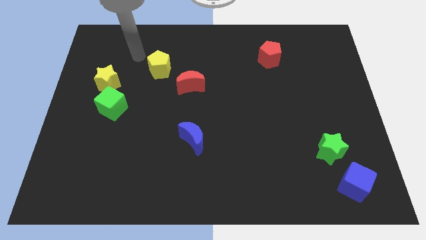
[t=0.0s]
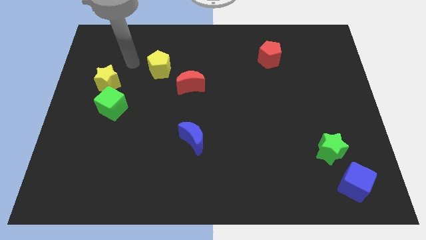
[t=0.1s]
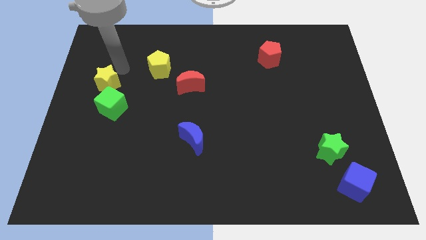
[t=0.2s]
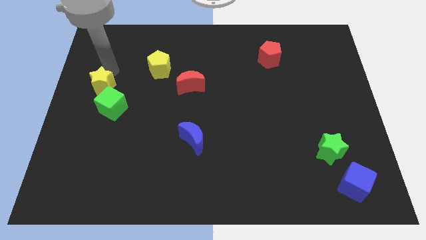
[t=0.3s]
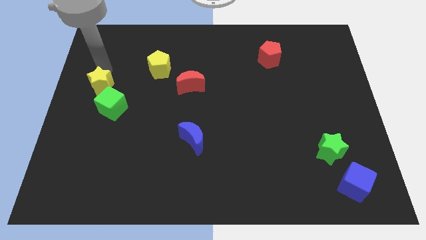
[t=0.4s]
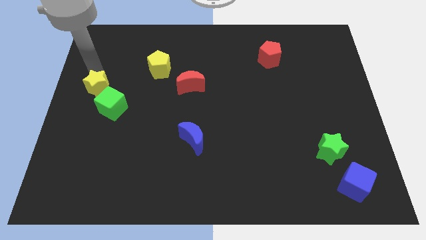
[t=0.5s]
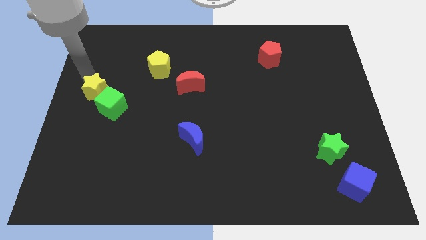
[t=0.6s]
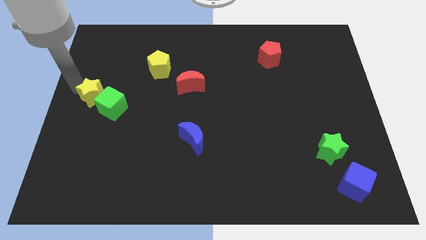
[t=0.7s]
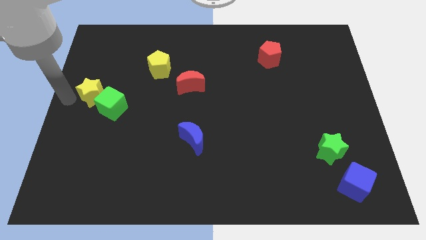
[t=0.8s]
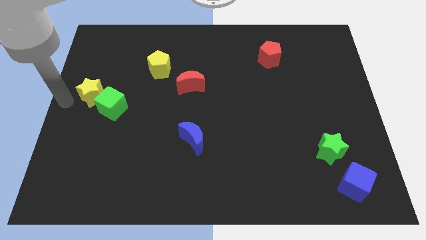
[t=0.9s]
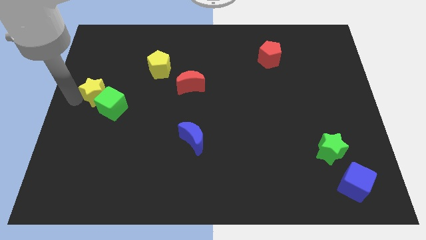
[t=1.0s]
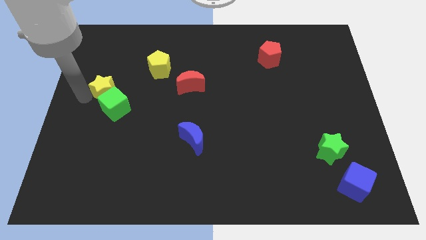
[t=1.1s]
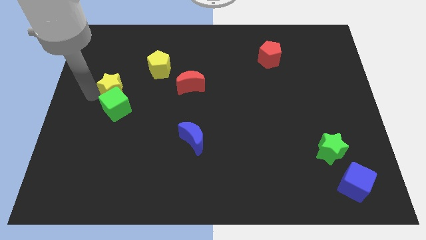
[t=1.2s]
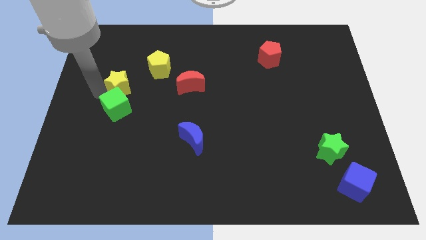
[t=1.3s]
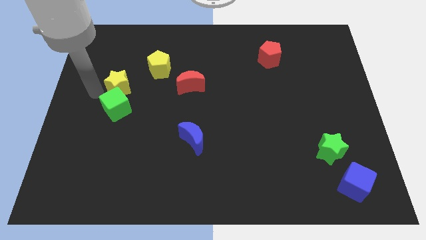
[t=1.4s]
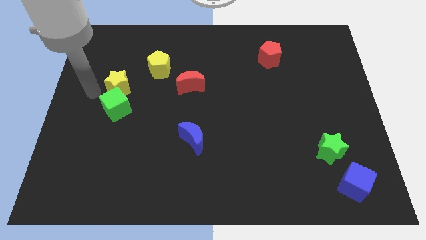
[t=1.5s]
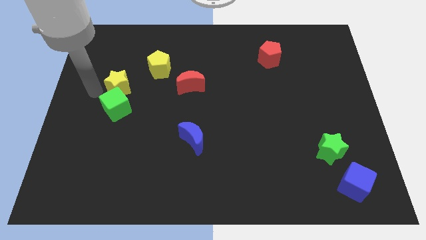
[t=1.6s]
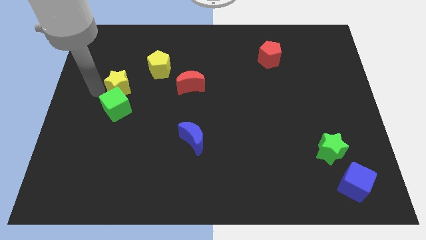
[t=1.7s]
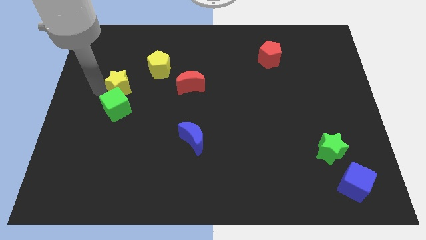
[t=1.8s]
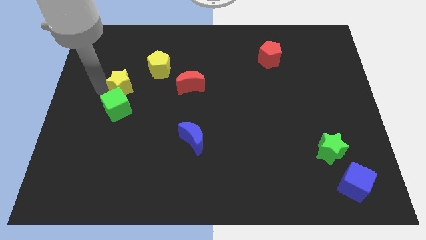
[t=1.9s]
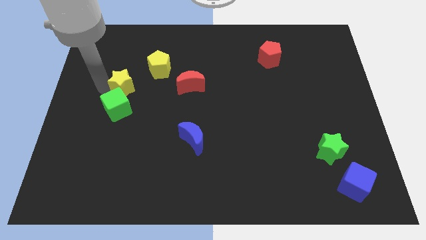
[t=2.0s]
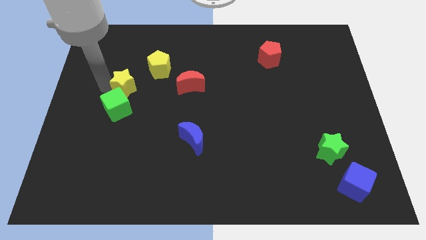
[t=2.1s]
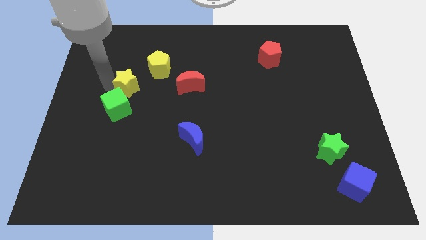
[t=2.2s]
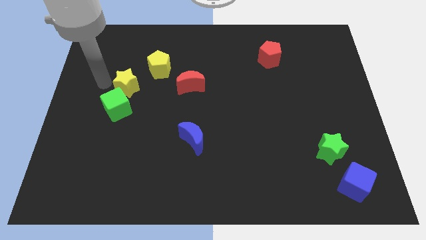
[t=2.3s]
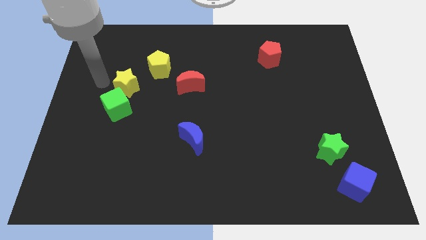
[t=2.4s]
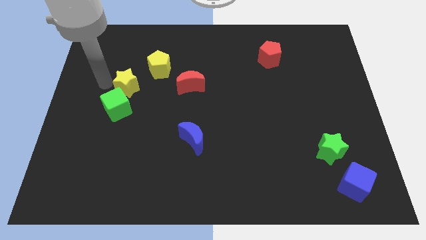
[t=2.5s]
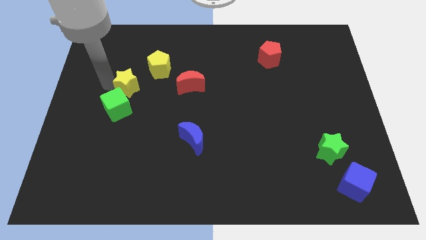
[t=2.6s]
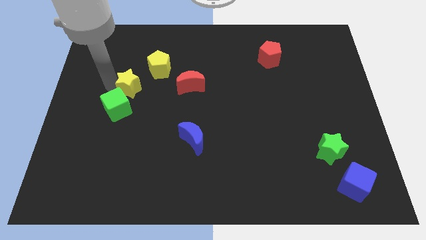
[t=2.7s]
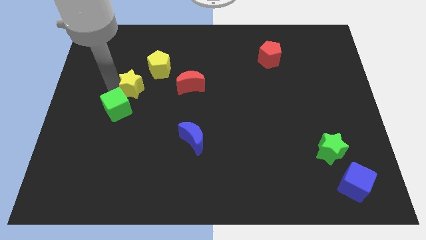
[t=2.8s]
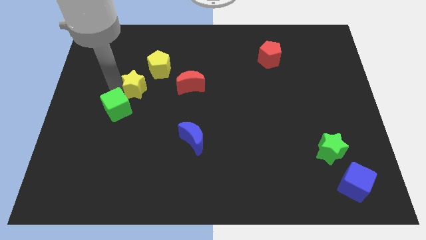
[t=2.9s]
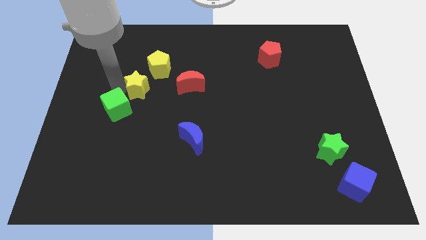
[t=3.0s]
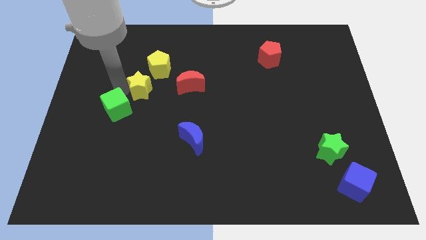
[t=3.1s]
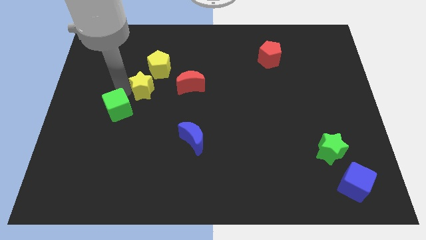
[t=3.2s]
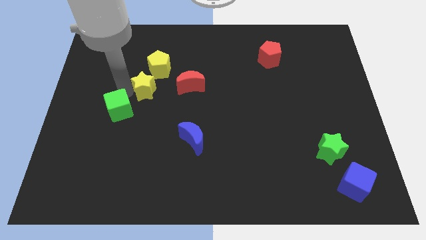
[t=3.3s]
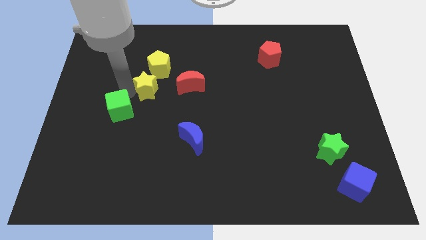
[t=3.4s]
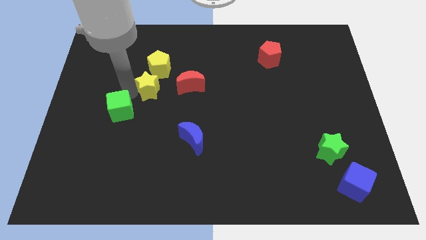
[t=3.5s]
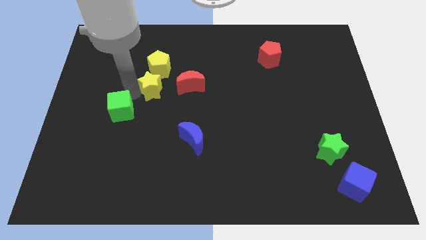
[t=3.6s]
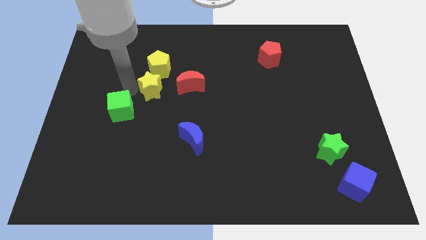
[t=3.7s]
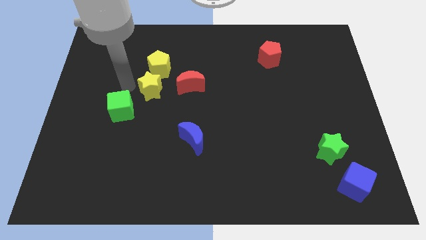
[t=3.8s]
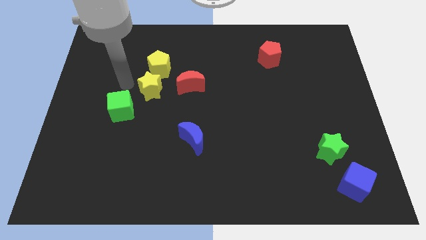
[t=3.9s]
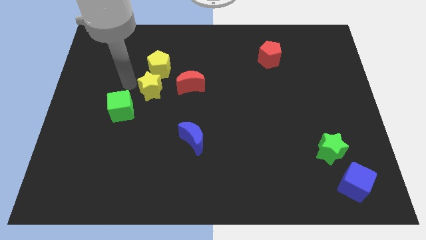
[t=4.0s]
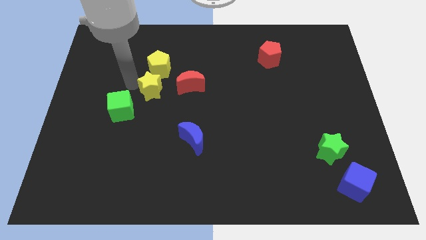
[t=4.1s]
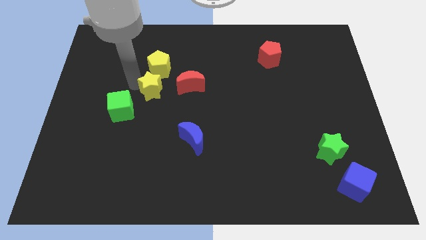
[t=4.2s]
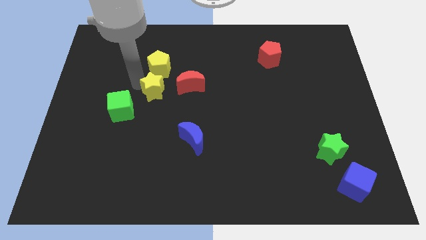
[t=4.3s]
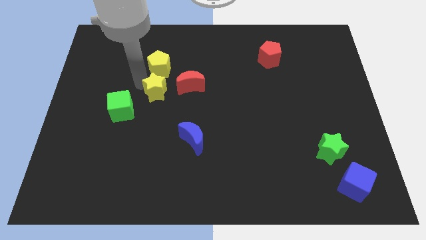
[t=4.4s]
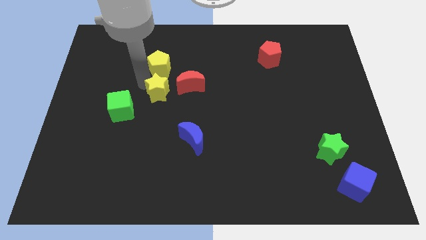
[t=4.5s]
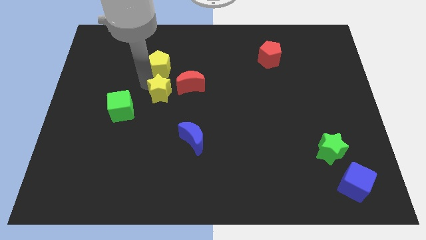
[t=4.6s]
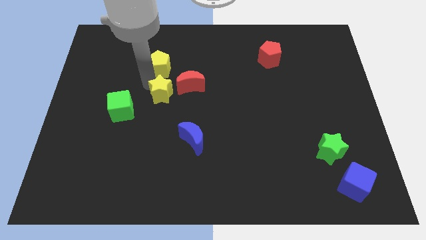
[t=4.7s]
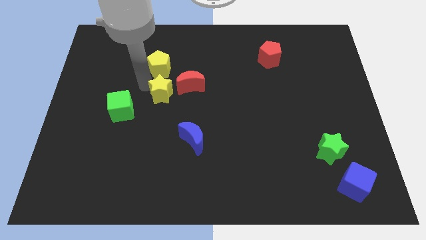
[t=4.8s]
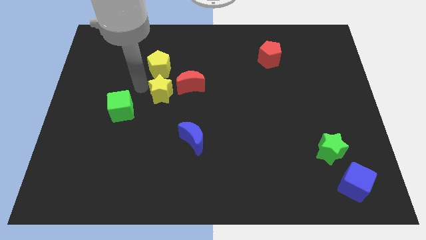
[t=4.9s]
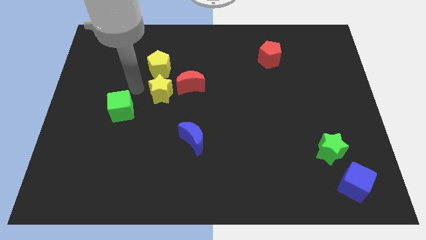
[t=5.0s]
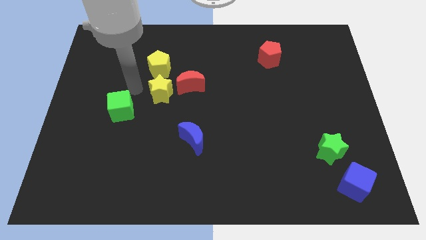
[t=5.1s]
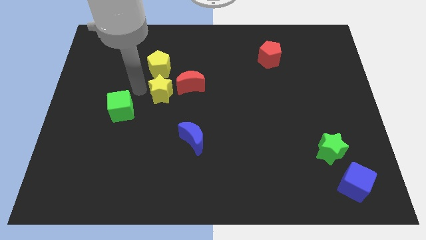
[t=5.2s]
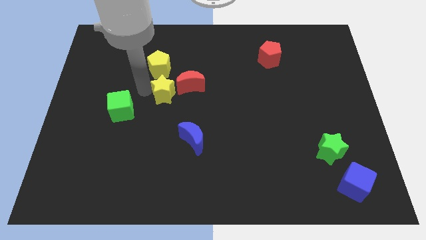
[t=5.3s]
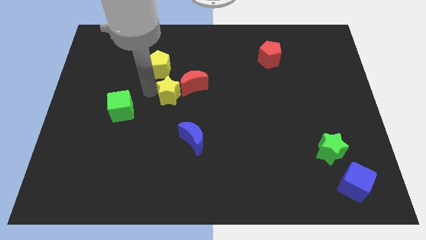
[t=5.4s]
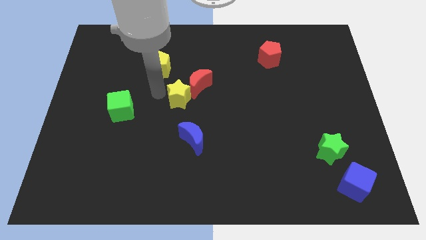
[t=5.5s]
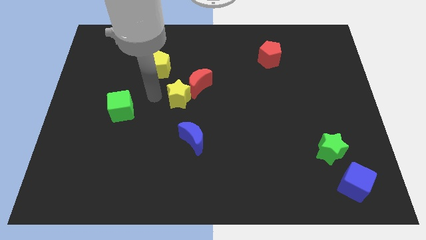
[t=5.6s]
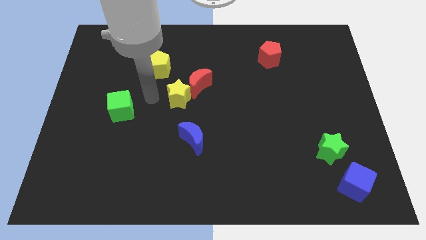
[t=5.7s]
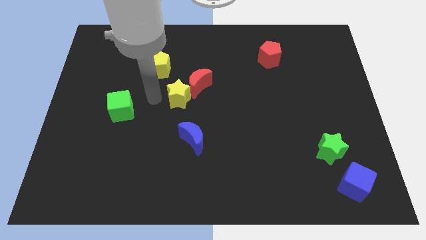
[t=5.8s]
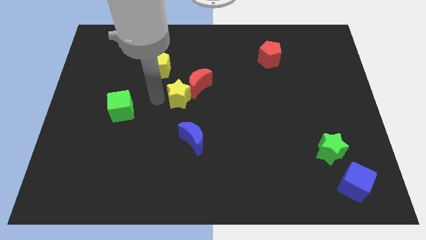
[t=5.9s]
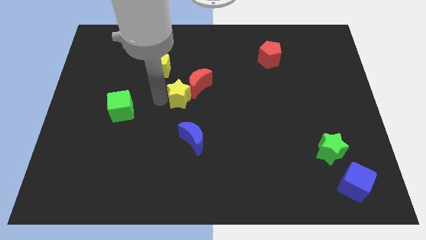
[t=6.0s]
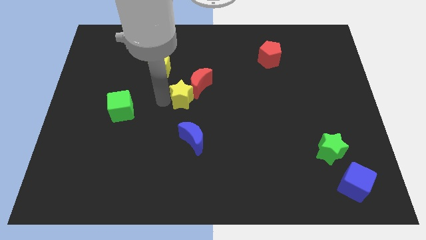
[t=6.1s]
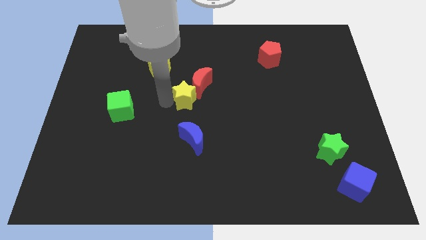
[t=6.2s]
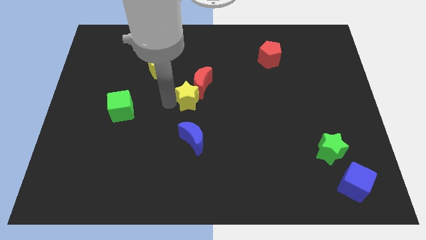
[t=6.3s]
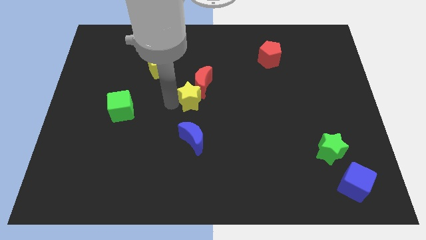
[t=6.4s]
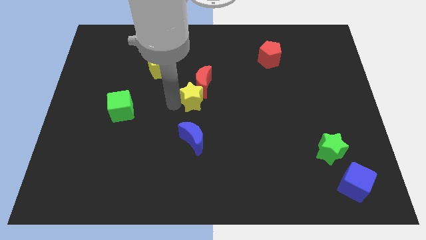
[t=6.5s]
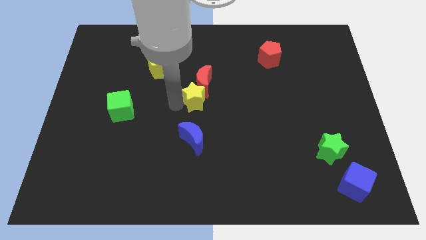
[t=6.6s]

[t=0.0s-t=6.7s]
slide the yellow star right

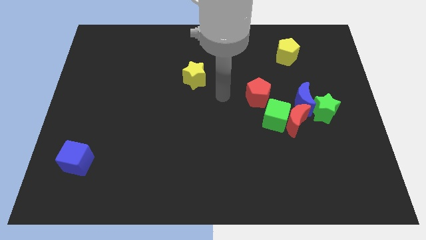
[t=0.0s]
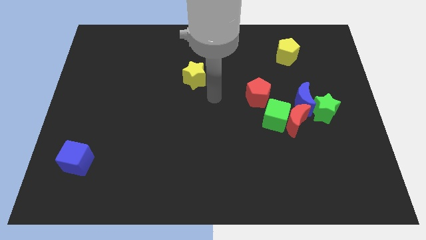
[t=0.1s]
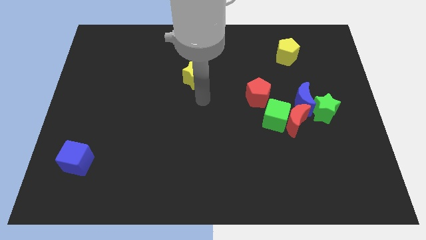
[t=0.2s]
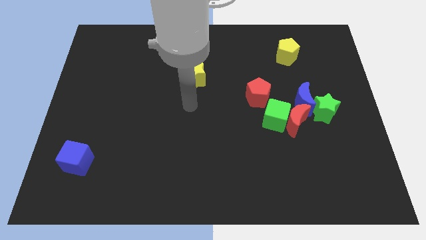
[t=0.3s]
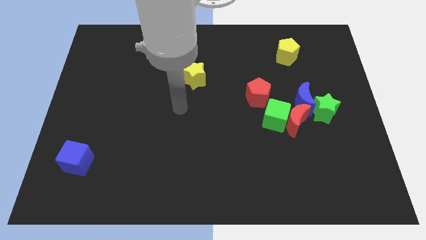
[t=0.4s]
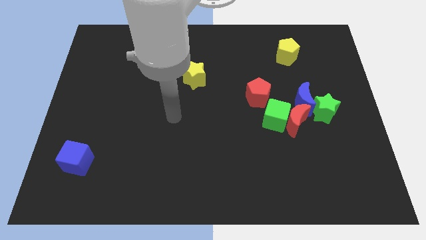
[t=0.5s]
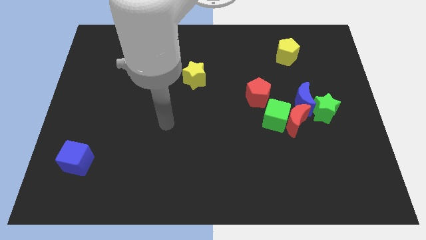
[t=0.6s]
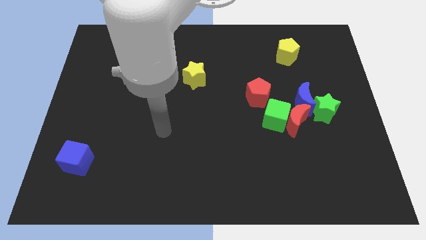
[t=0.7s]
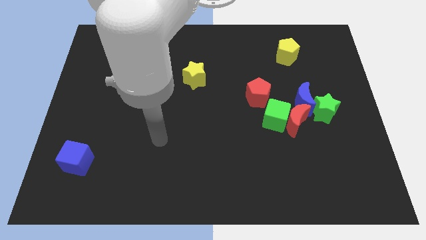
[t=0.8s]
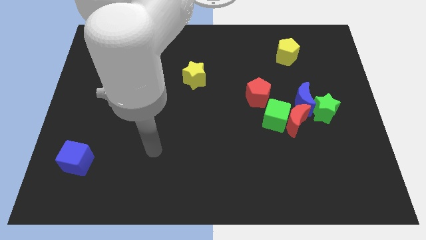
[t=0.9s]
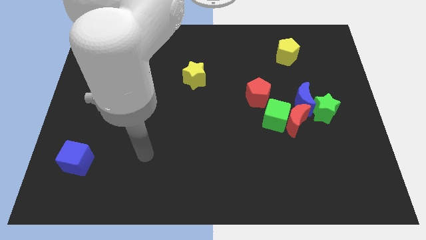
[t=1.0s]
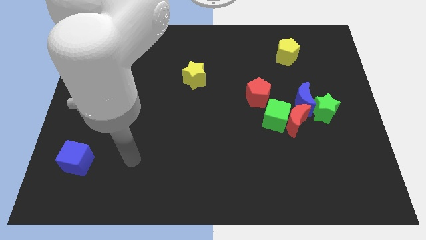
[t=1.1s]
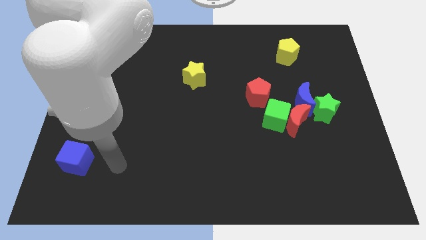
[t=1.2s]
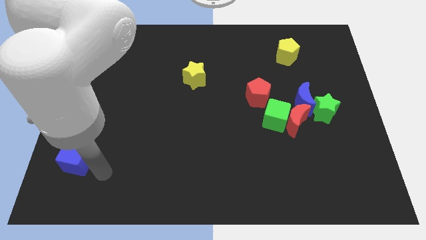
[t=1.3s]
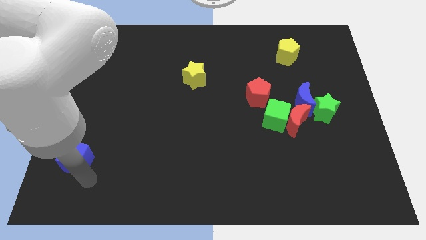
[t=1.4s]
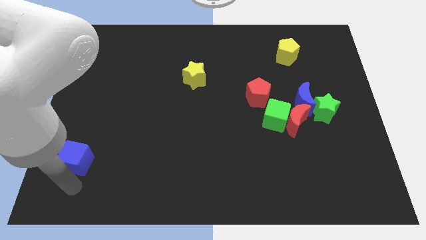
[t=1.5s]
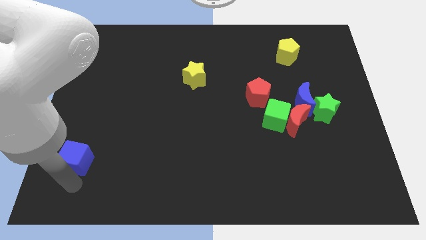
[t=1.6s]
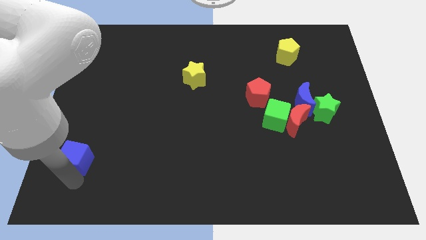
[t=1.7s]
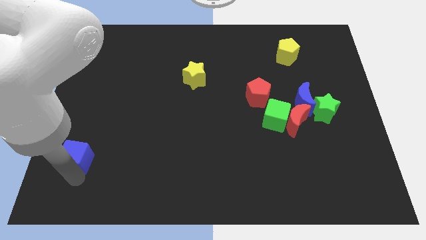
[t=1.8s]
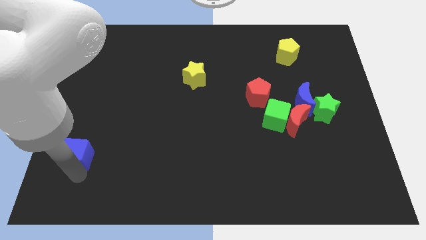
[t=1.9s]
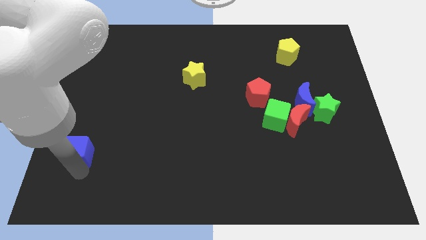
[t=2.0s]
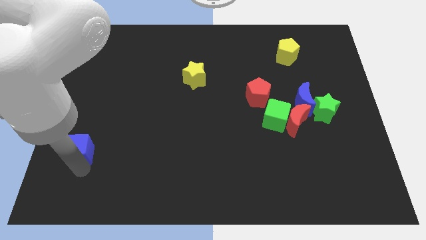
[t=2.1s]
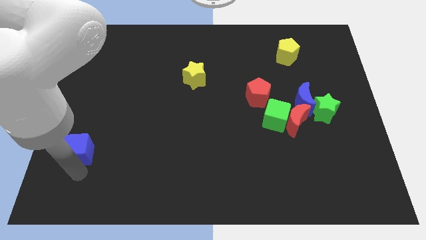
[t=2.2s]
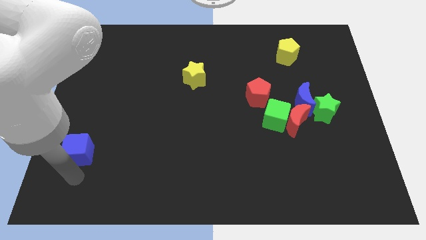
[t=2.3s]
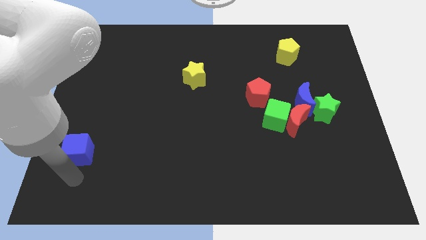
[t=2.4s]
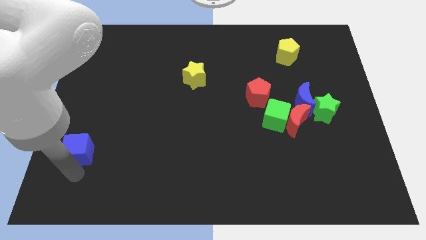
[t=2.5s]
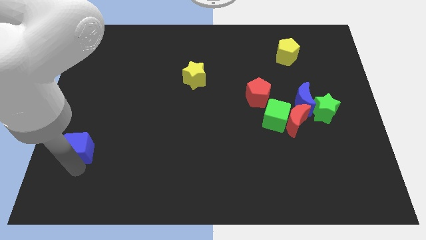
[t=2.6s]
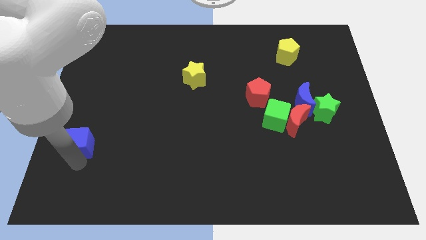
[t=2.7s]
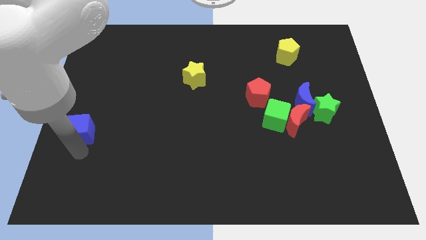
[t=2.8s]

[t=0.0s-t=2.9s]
slide the blue cube up somewhat
